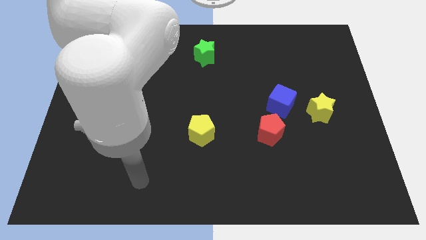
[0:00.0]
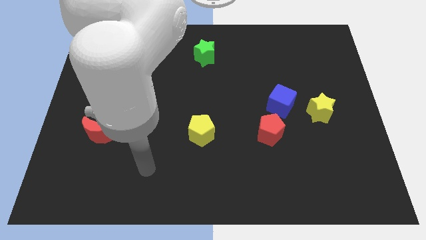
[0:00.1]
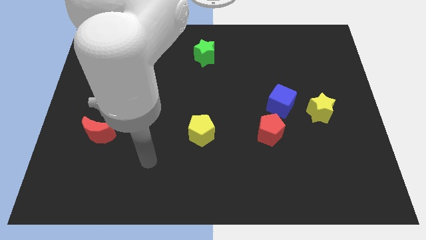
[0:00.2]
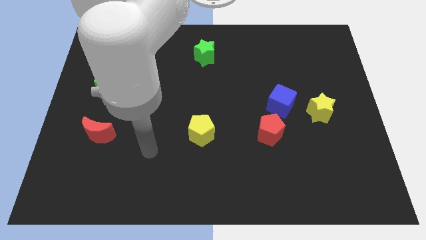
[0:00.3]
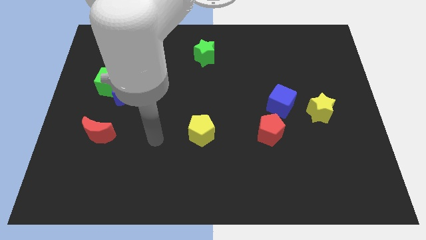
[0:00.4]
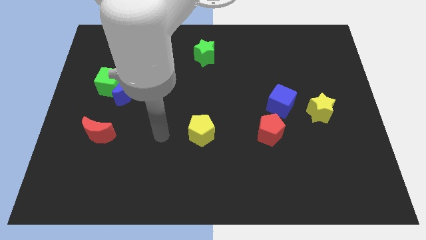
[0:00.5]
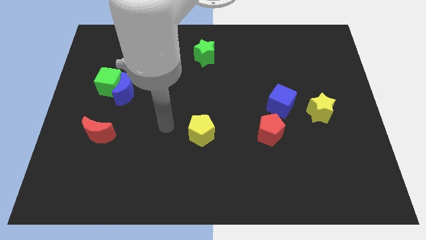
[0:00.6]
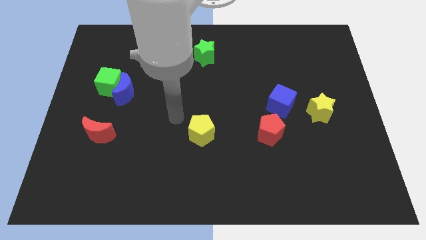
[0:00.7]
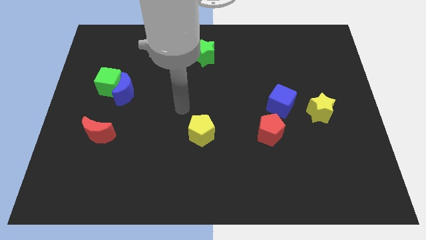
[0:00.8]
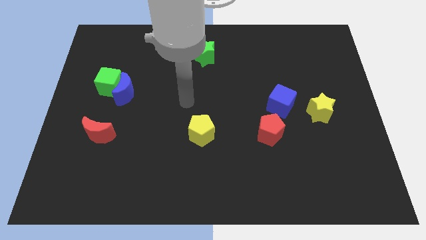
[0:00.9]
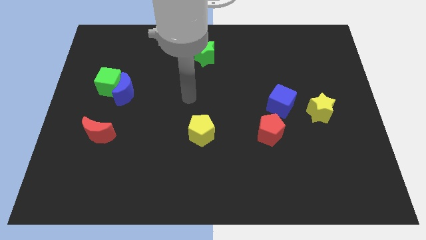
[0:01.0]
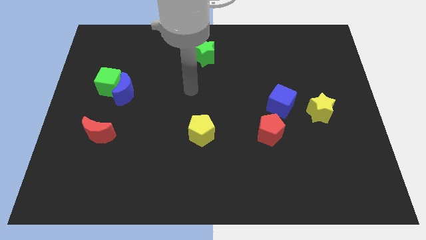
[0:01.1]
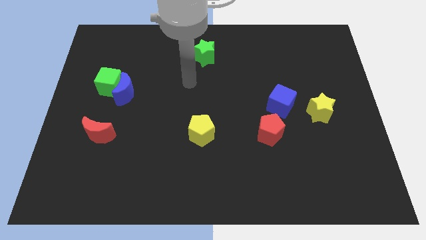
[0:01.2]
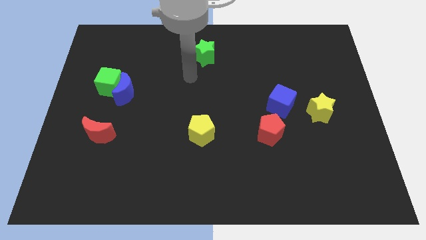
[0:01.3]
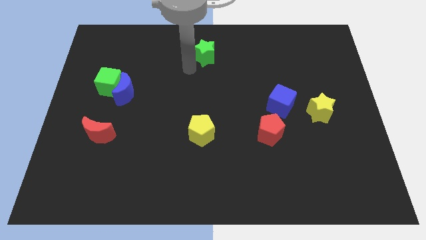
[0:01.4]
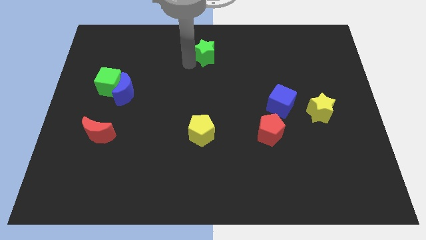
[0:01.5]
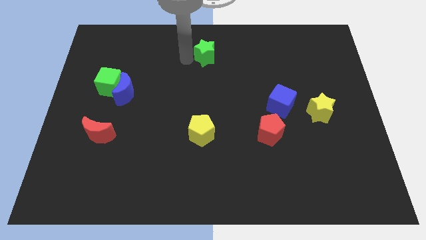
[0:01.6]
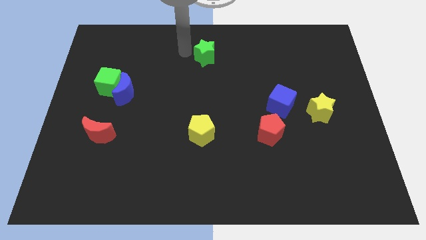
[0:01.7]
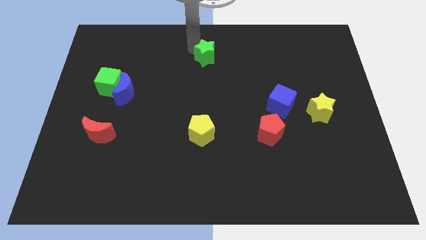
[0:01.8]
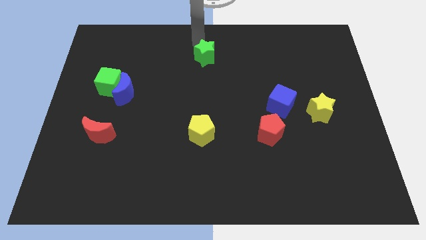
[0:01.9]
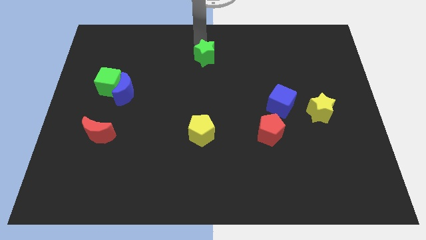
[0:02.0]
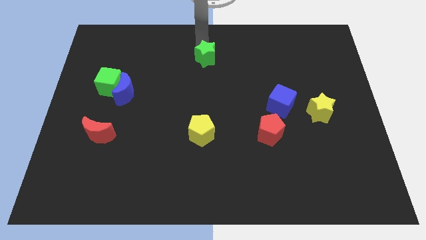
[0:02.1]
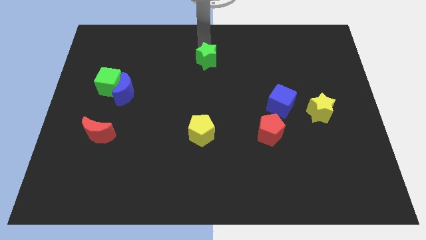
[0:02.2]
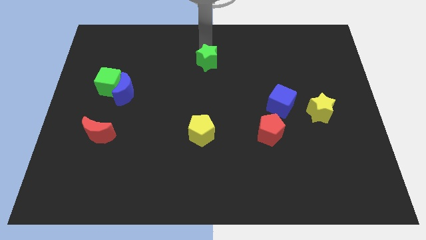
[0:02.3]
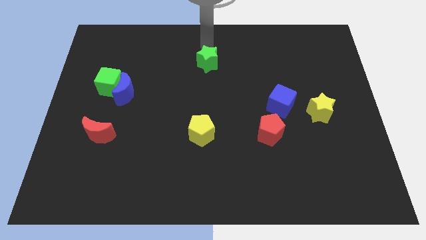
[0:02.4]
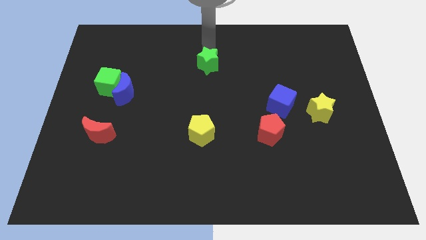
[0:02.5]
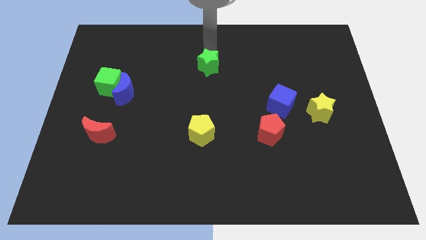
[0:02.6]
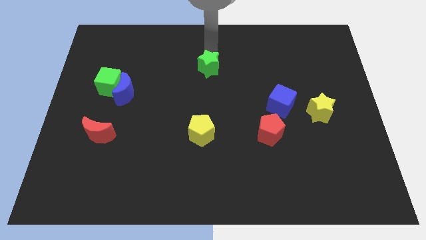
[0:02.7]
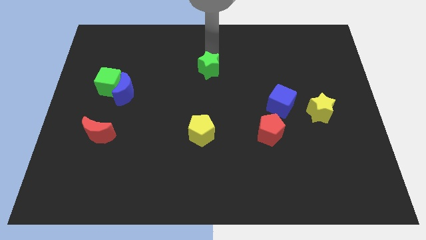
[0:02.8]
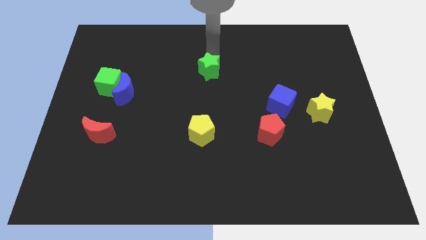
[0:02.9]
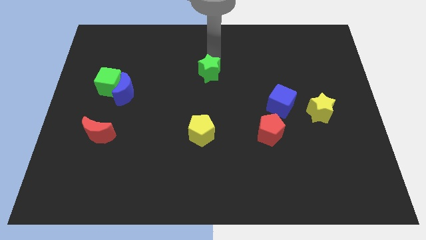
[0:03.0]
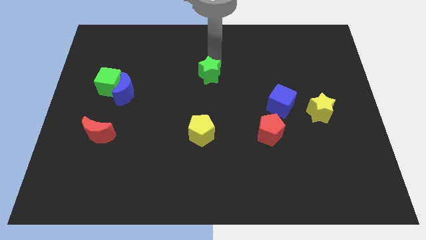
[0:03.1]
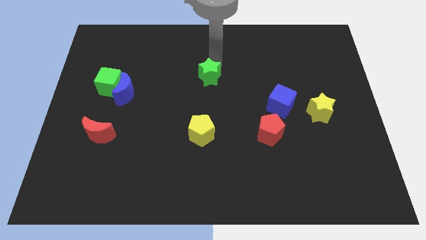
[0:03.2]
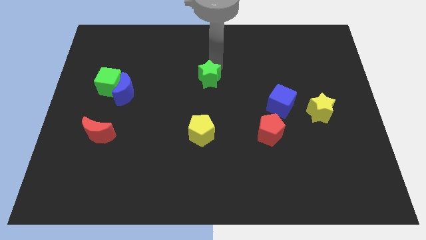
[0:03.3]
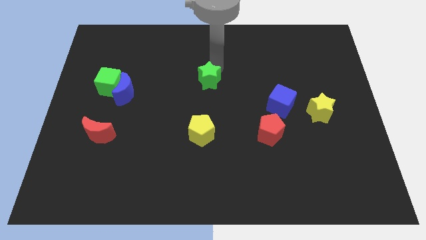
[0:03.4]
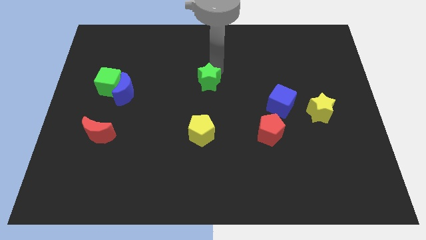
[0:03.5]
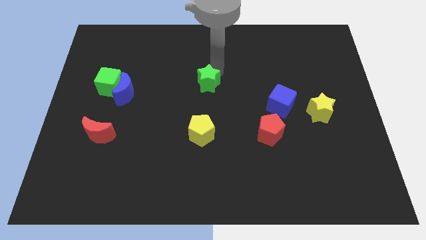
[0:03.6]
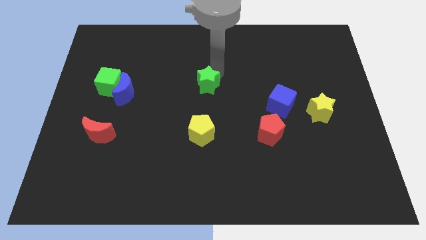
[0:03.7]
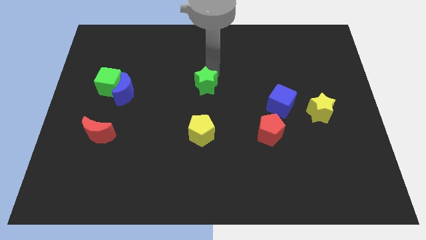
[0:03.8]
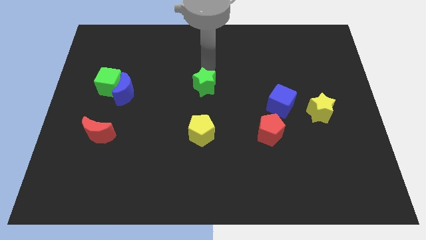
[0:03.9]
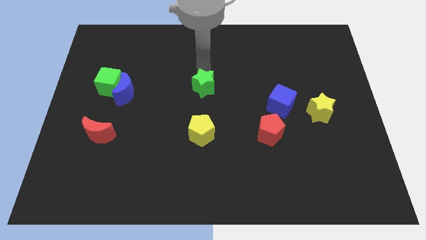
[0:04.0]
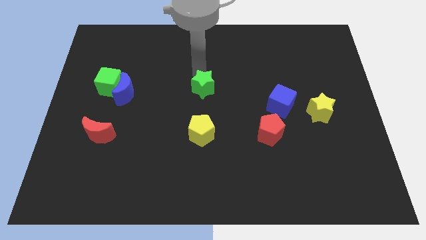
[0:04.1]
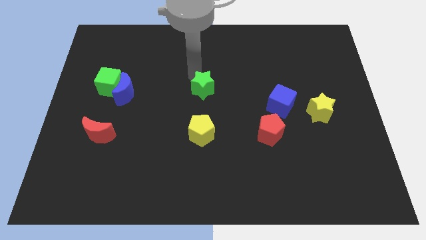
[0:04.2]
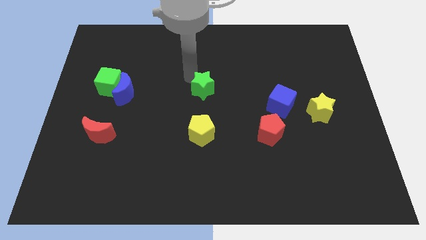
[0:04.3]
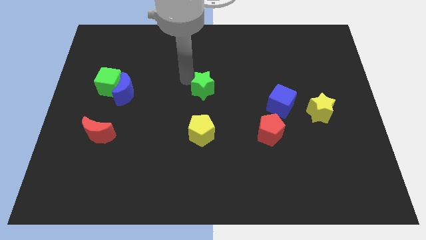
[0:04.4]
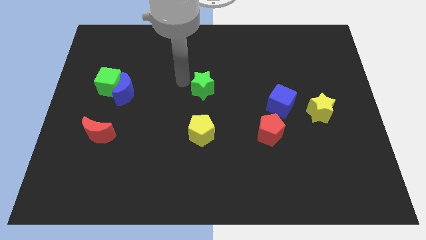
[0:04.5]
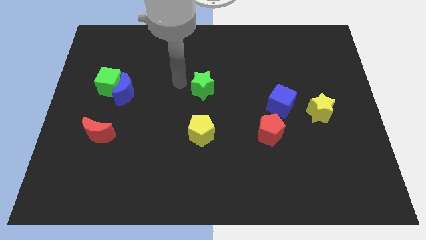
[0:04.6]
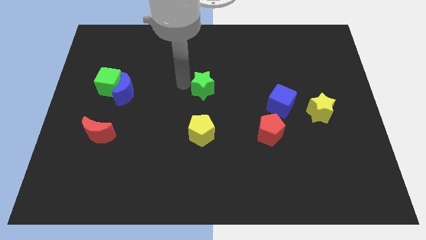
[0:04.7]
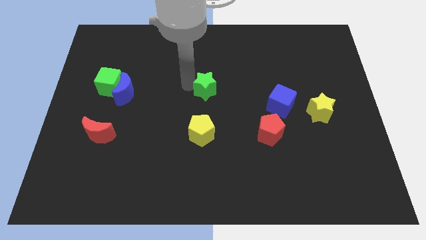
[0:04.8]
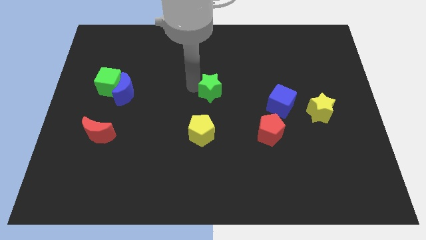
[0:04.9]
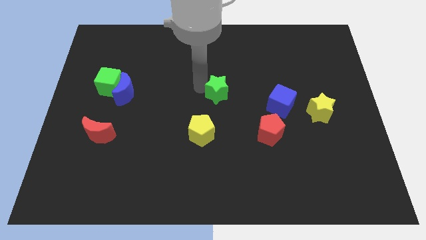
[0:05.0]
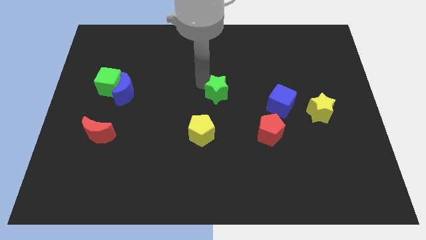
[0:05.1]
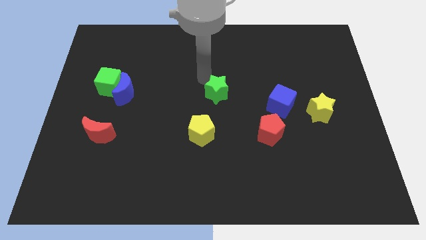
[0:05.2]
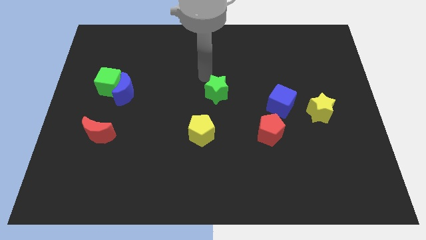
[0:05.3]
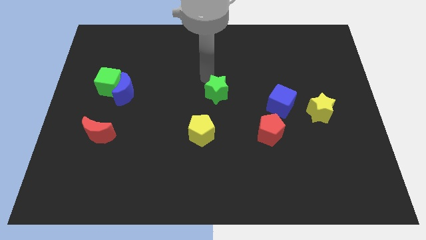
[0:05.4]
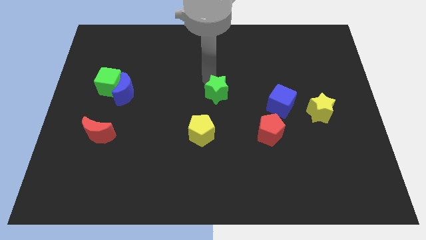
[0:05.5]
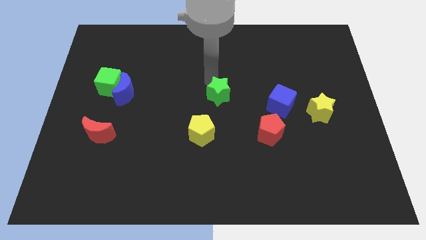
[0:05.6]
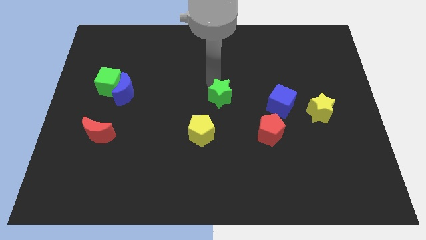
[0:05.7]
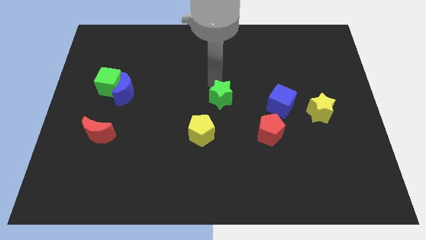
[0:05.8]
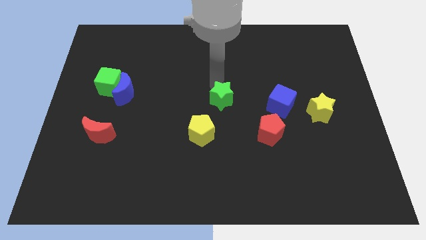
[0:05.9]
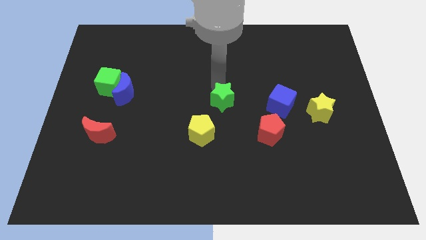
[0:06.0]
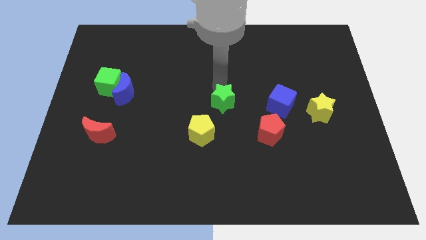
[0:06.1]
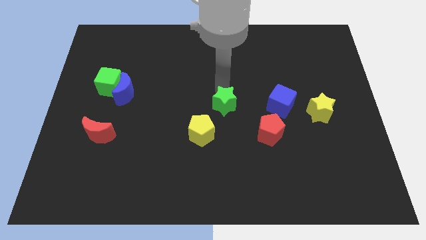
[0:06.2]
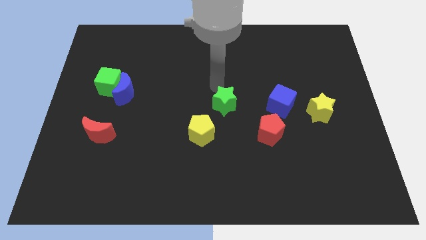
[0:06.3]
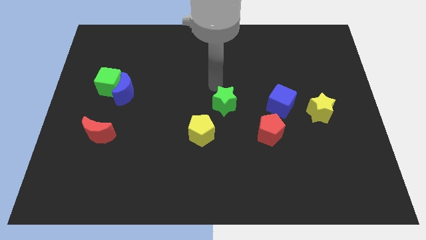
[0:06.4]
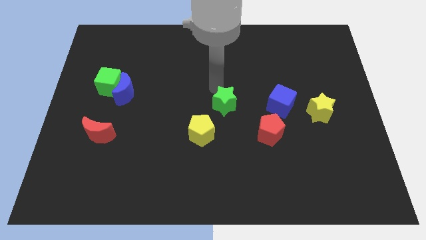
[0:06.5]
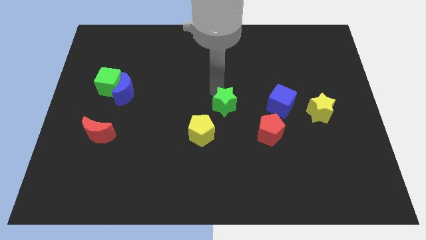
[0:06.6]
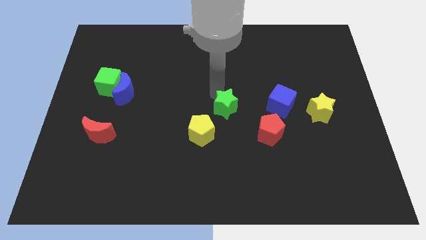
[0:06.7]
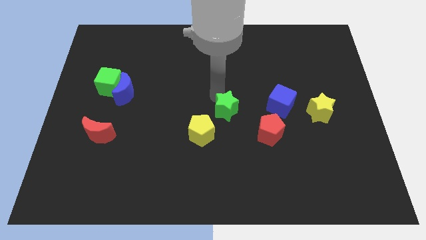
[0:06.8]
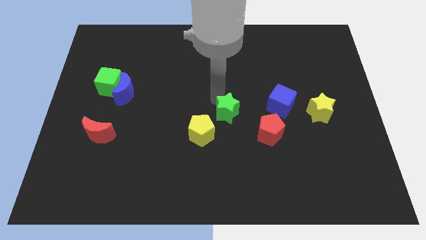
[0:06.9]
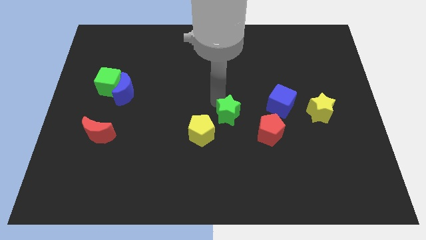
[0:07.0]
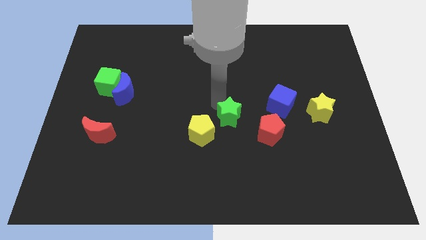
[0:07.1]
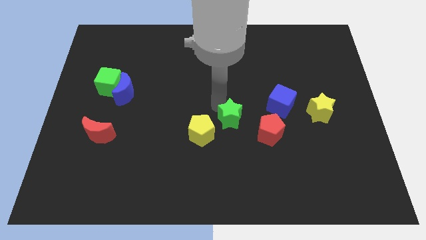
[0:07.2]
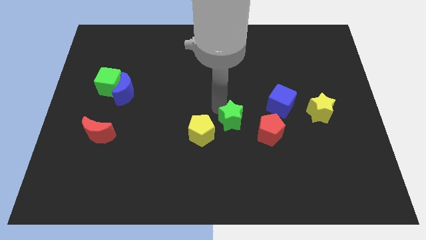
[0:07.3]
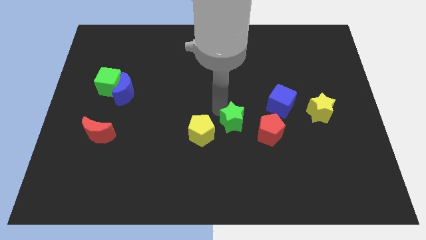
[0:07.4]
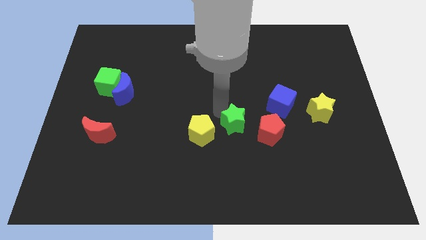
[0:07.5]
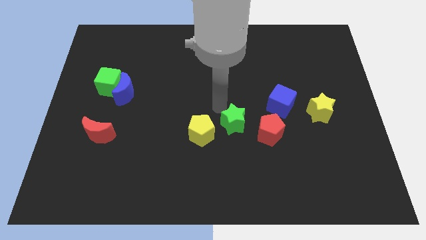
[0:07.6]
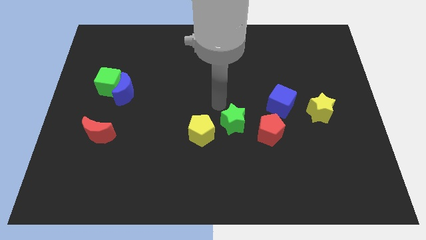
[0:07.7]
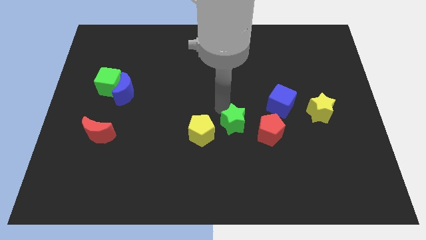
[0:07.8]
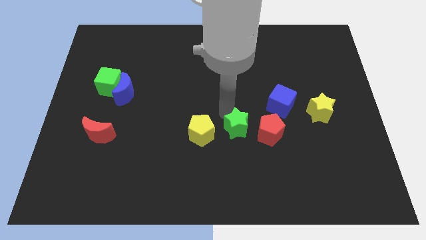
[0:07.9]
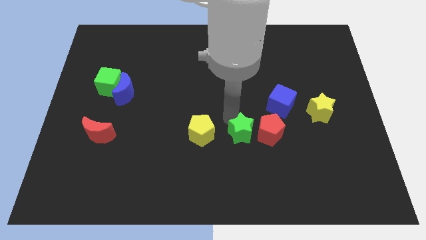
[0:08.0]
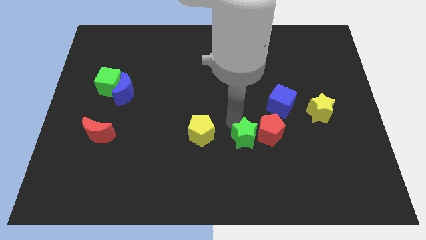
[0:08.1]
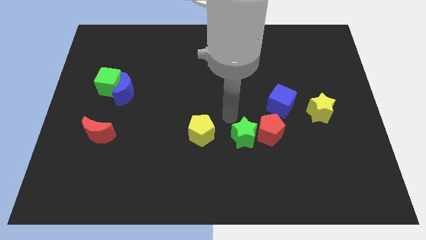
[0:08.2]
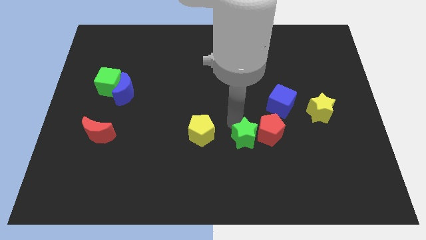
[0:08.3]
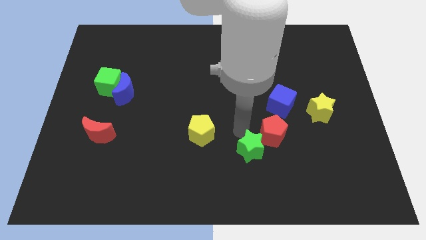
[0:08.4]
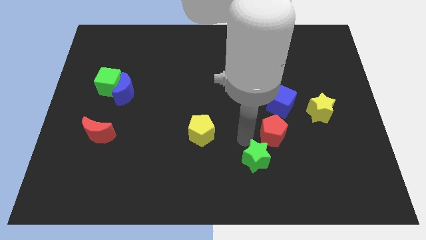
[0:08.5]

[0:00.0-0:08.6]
slide the green star to the bottom of the red pentagon
